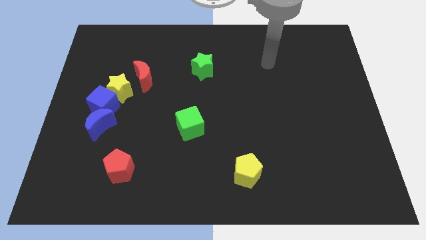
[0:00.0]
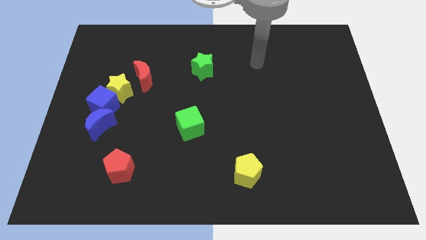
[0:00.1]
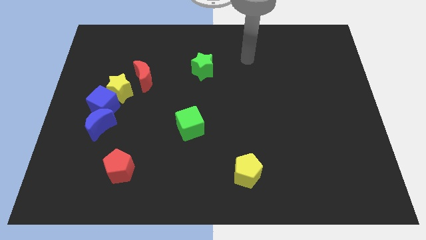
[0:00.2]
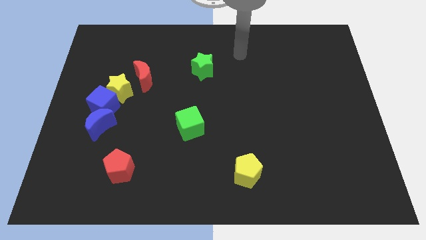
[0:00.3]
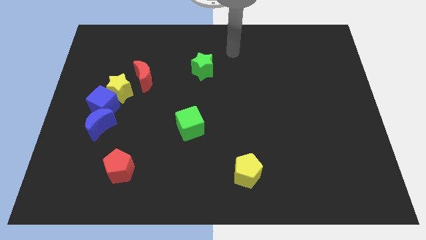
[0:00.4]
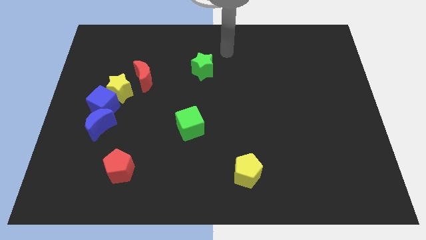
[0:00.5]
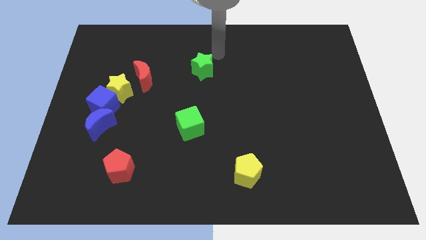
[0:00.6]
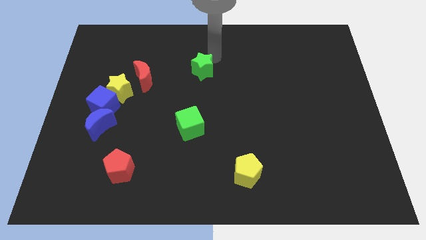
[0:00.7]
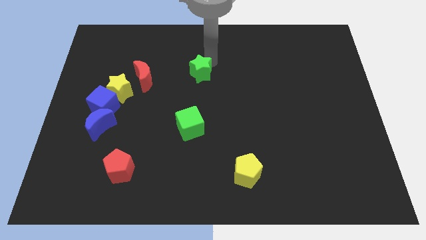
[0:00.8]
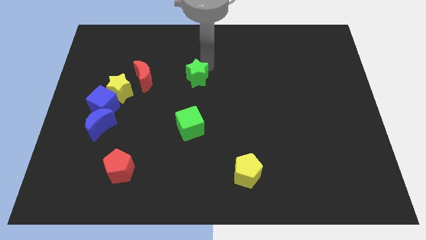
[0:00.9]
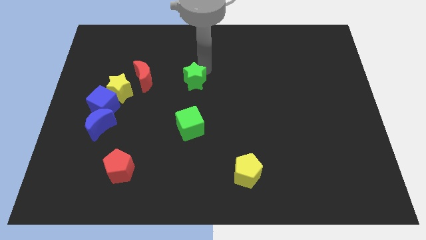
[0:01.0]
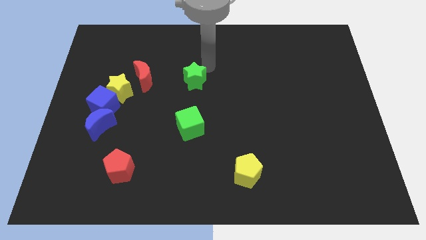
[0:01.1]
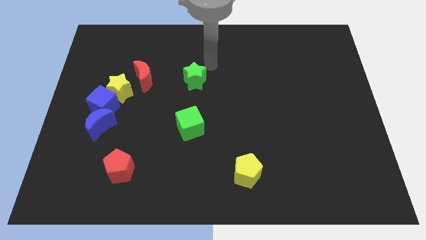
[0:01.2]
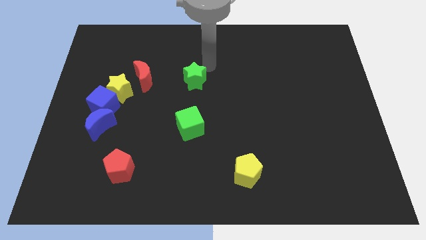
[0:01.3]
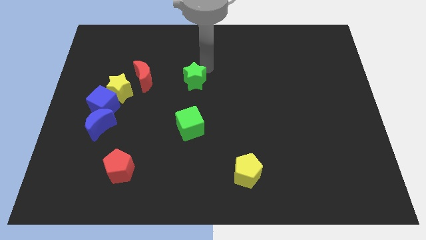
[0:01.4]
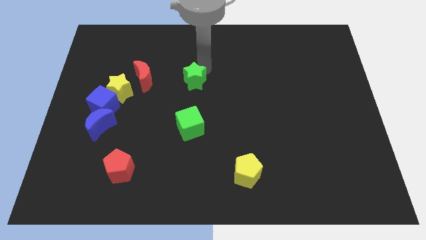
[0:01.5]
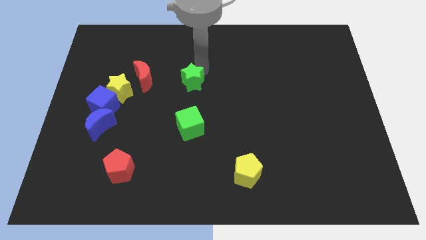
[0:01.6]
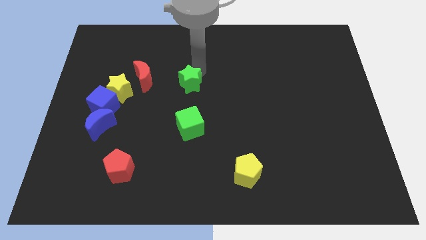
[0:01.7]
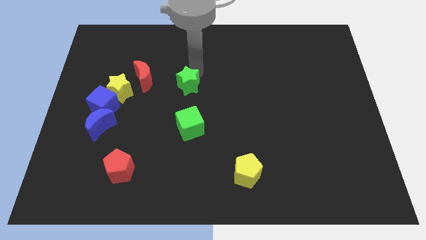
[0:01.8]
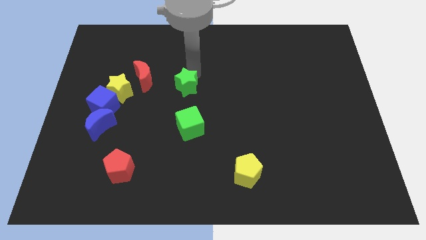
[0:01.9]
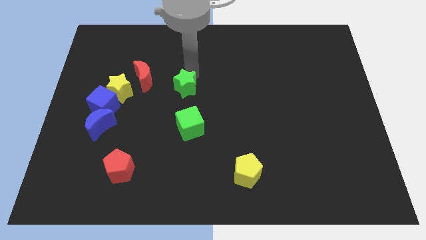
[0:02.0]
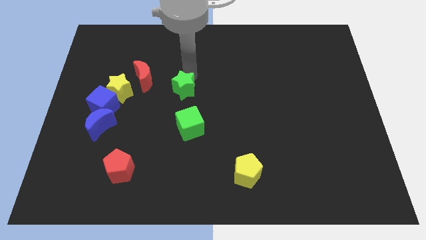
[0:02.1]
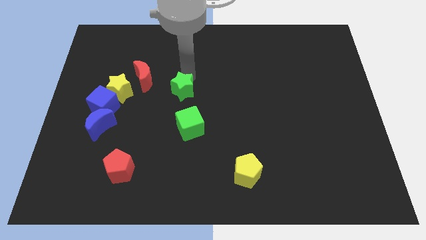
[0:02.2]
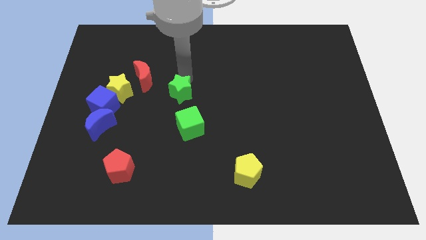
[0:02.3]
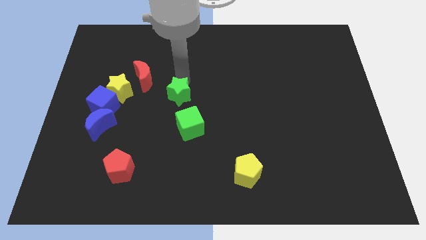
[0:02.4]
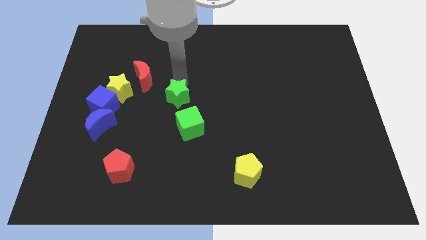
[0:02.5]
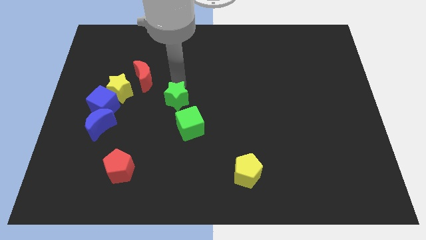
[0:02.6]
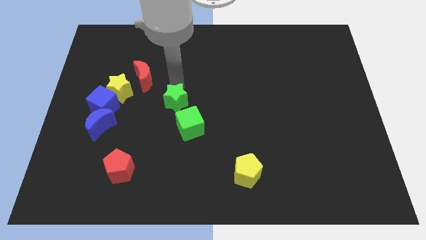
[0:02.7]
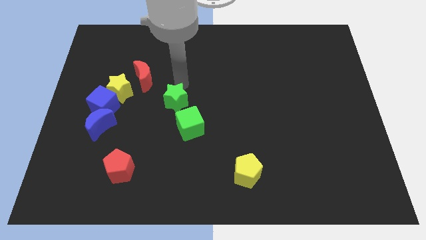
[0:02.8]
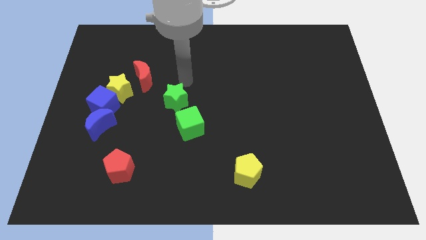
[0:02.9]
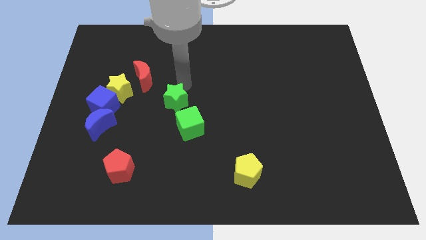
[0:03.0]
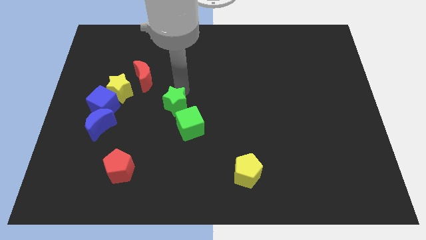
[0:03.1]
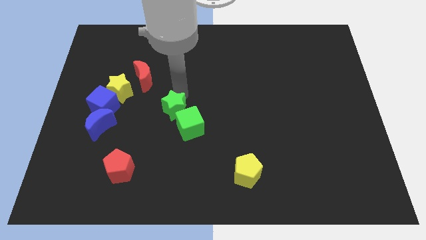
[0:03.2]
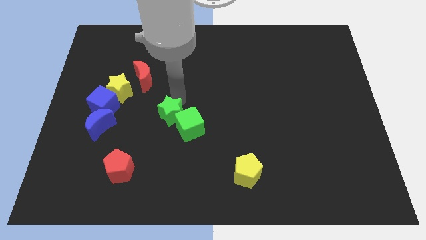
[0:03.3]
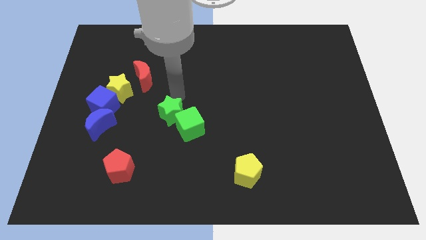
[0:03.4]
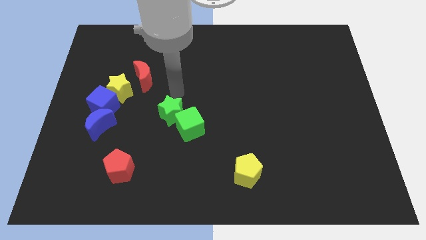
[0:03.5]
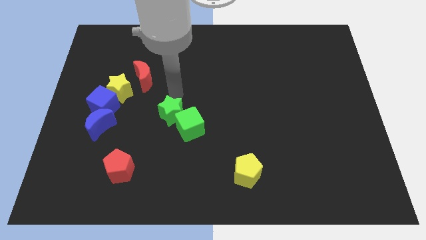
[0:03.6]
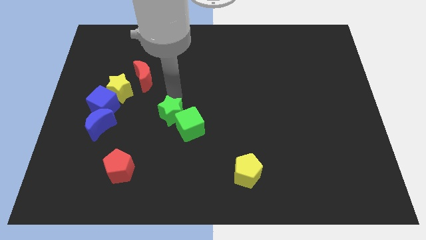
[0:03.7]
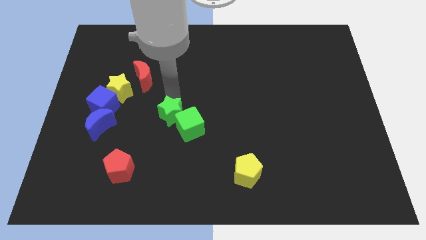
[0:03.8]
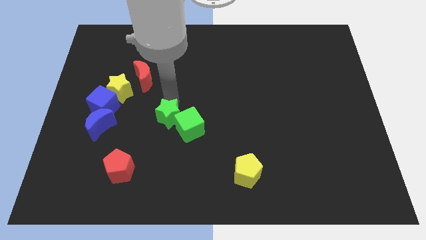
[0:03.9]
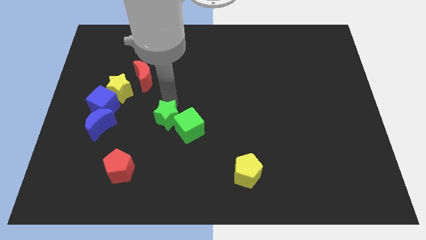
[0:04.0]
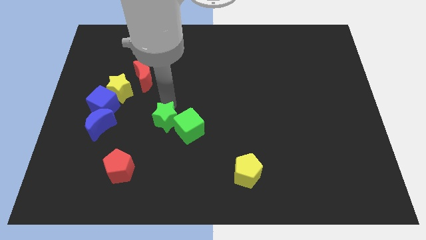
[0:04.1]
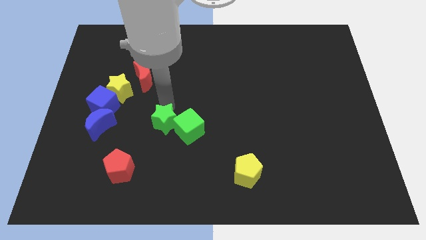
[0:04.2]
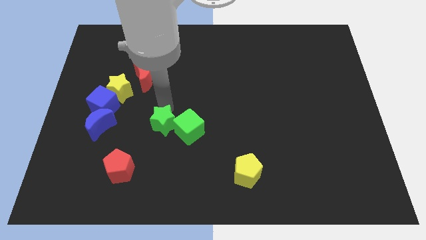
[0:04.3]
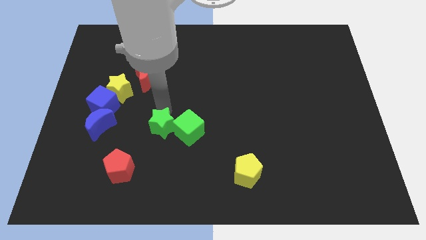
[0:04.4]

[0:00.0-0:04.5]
put the green star to the bottom left side of the green cube

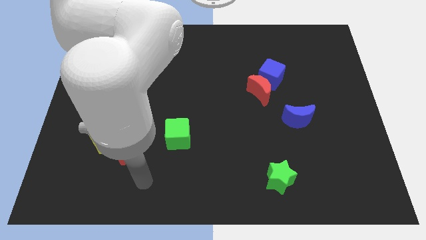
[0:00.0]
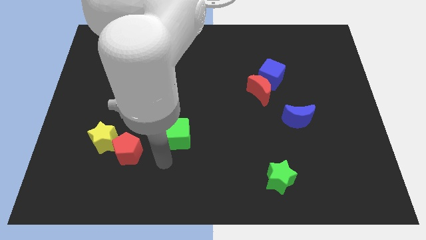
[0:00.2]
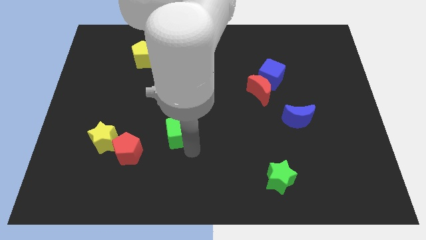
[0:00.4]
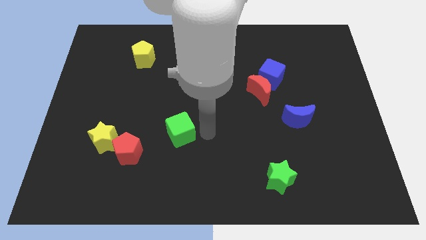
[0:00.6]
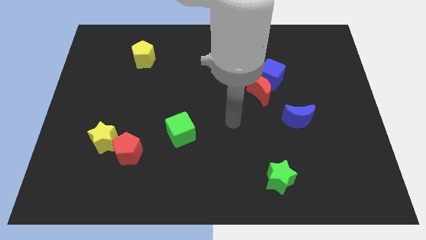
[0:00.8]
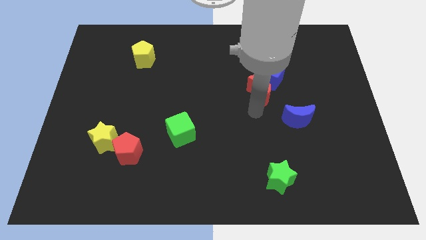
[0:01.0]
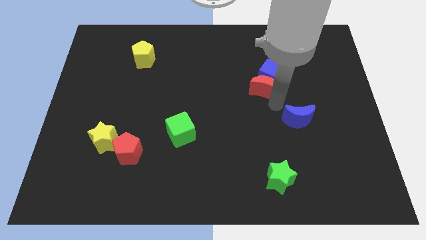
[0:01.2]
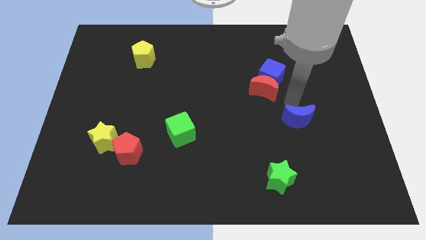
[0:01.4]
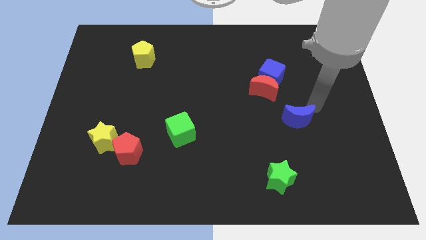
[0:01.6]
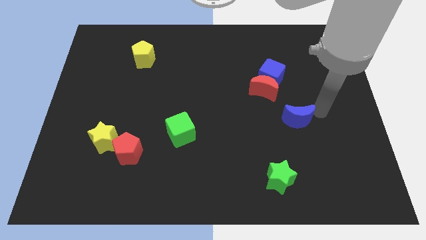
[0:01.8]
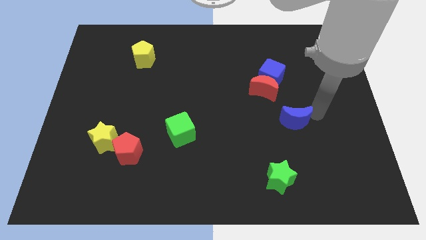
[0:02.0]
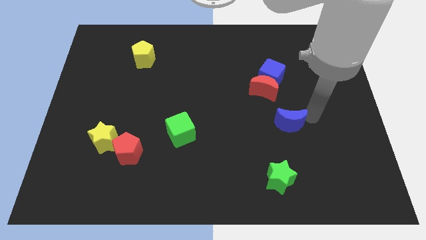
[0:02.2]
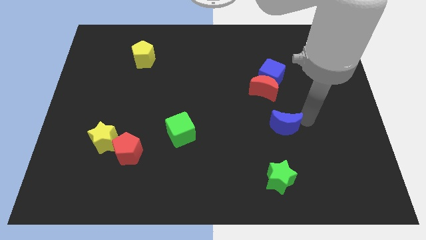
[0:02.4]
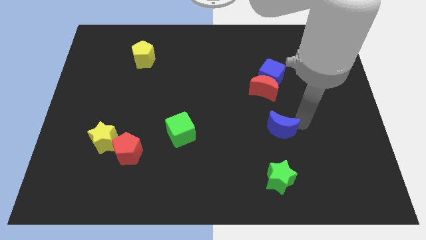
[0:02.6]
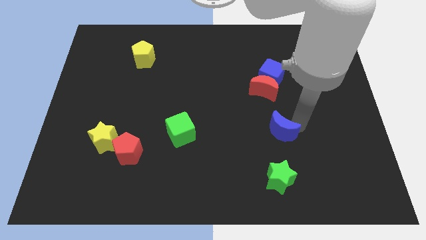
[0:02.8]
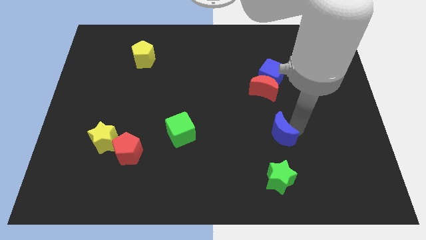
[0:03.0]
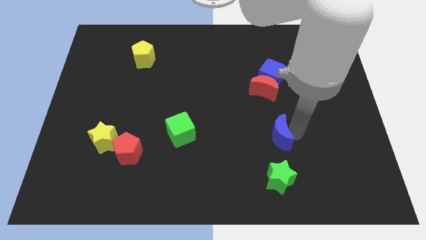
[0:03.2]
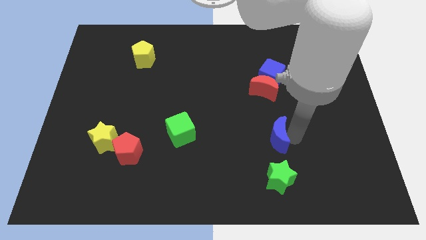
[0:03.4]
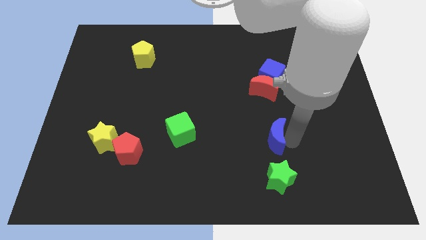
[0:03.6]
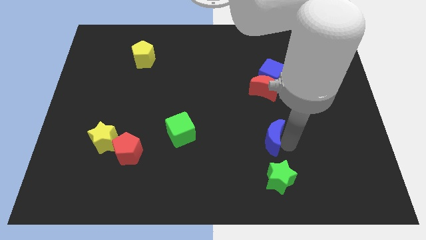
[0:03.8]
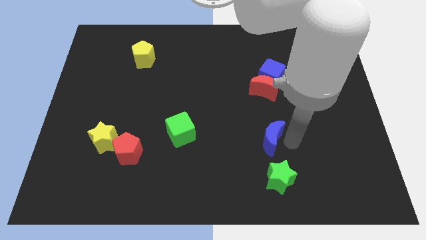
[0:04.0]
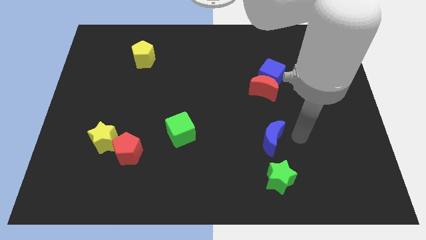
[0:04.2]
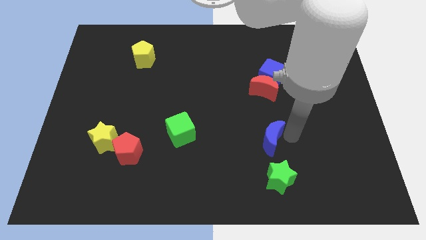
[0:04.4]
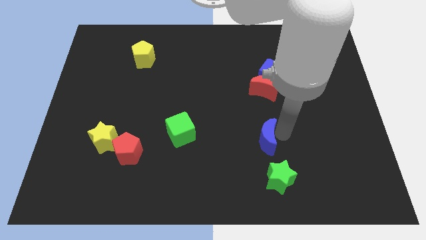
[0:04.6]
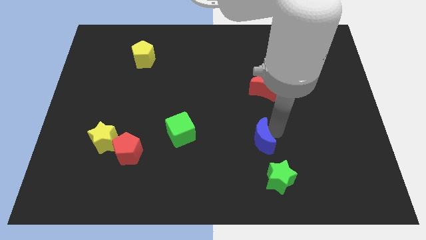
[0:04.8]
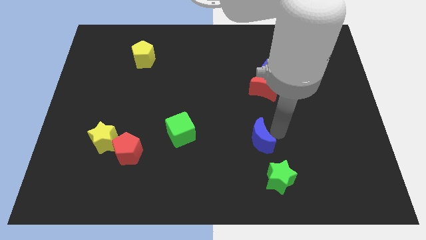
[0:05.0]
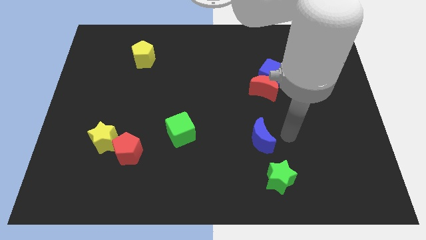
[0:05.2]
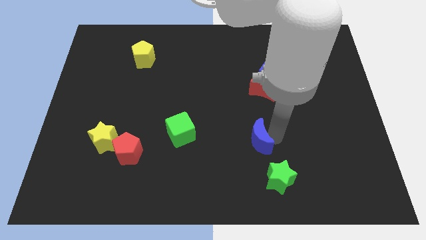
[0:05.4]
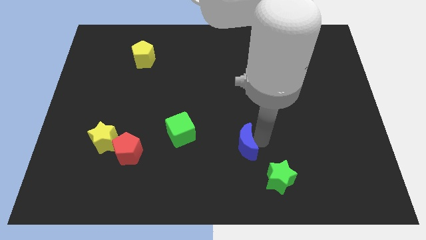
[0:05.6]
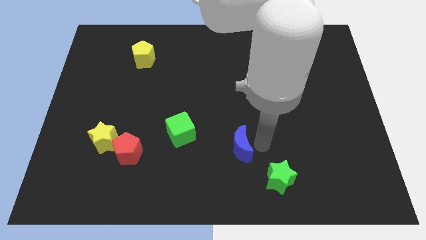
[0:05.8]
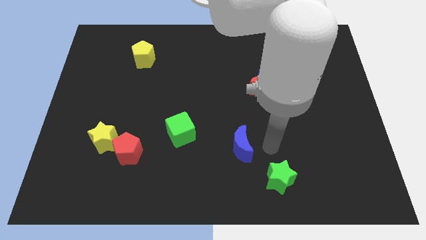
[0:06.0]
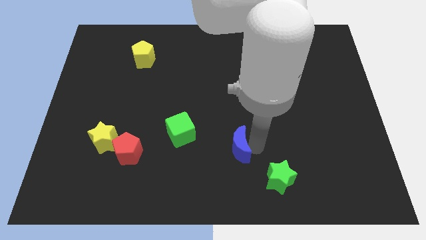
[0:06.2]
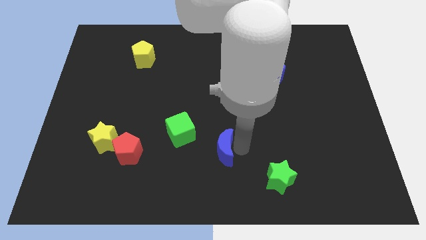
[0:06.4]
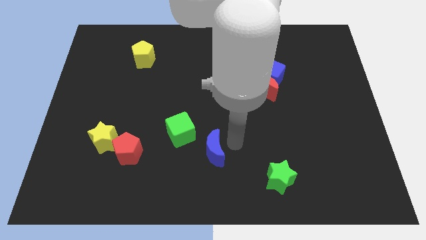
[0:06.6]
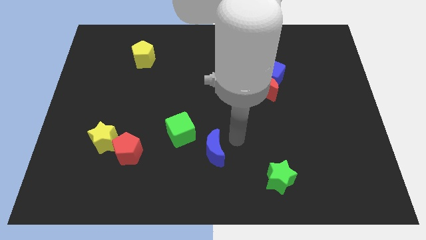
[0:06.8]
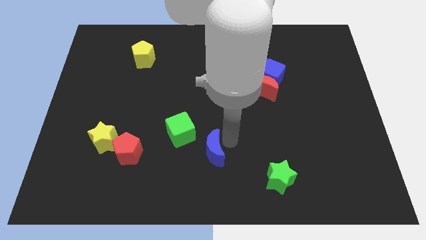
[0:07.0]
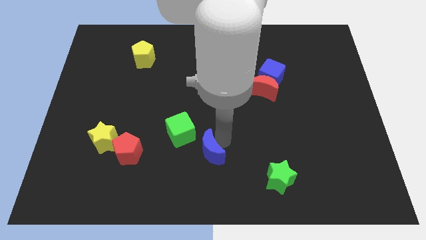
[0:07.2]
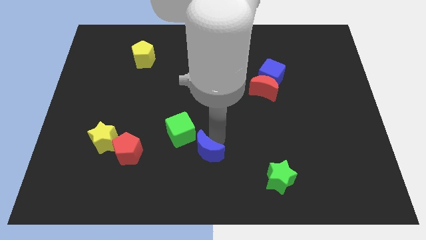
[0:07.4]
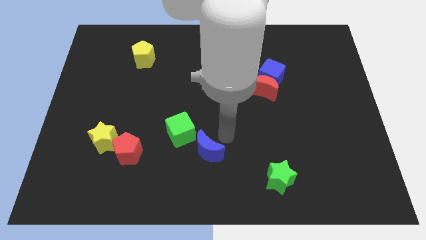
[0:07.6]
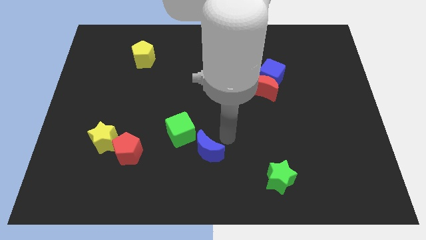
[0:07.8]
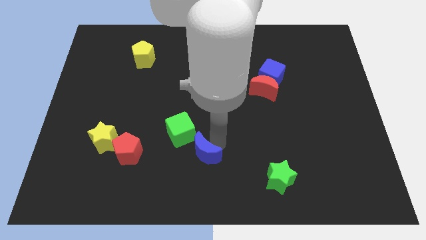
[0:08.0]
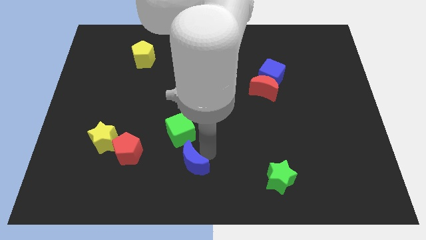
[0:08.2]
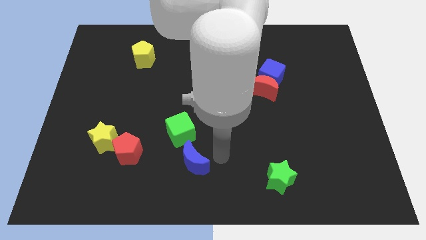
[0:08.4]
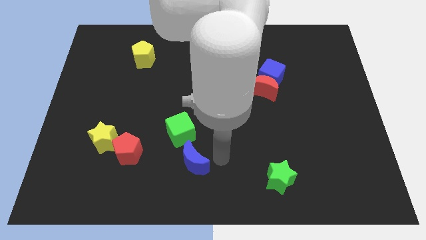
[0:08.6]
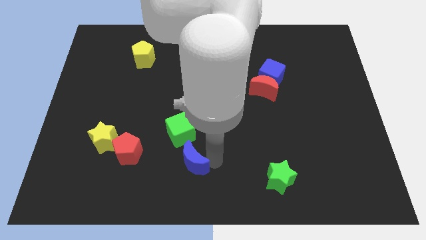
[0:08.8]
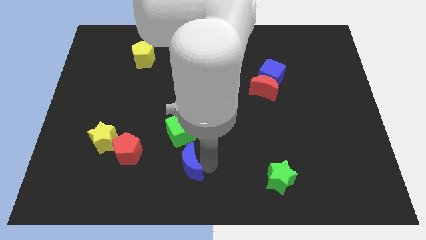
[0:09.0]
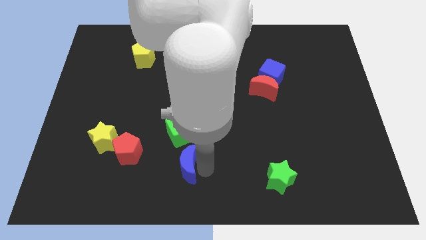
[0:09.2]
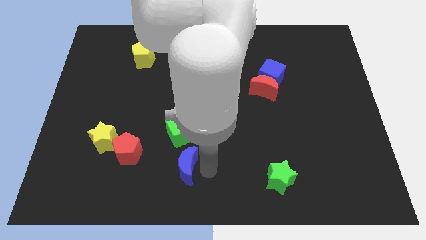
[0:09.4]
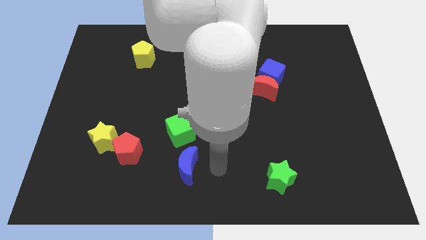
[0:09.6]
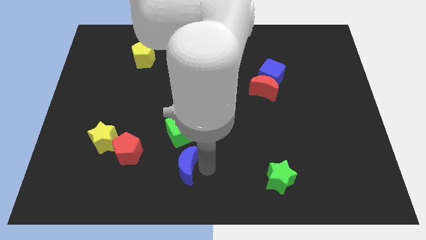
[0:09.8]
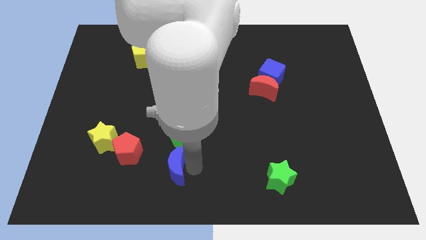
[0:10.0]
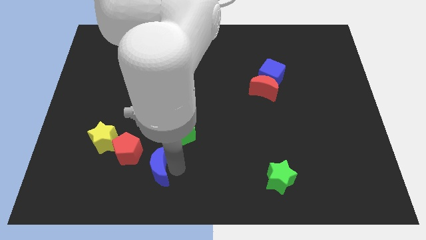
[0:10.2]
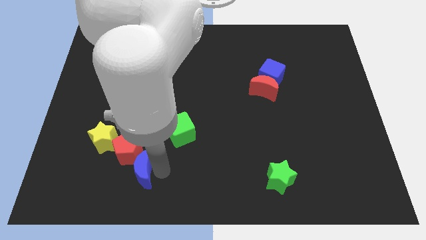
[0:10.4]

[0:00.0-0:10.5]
push the blue moon to the bottom right side of the yellow star
